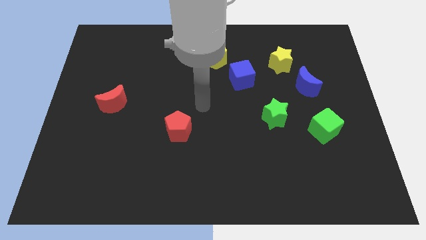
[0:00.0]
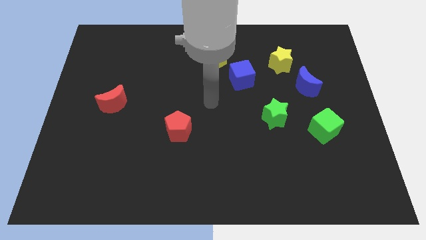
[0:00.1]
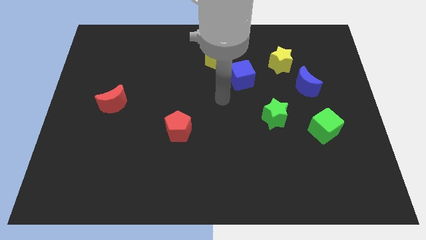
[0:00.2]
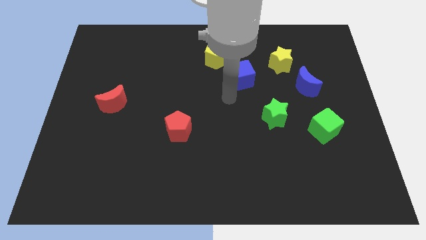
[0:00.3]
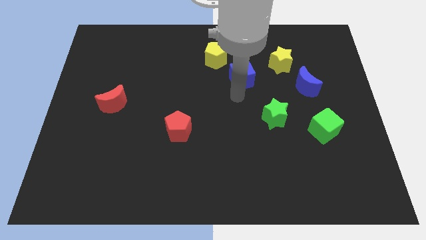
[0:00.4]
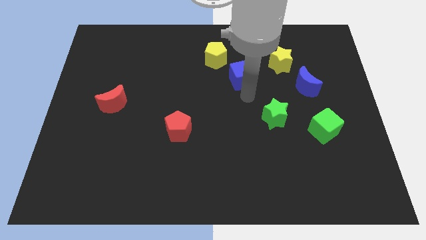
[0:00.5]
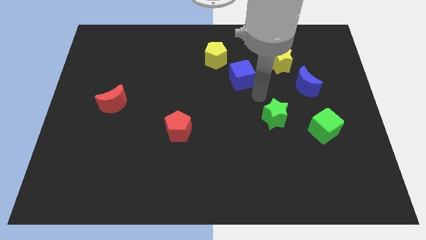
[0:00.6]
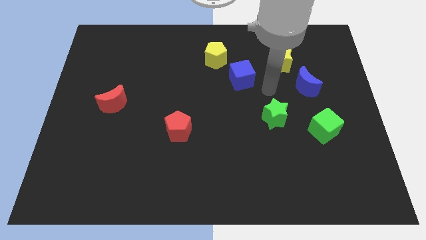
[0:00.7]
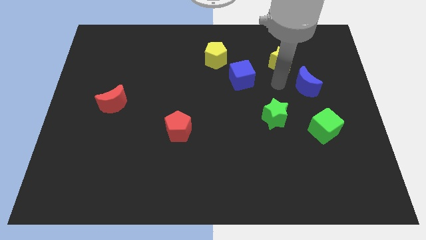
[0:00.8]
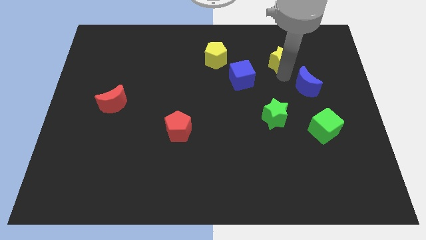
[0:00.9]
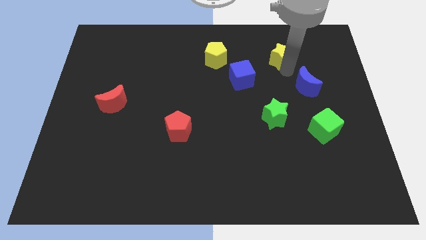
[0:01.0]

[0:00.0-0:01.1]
pull the blue moon apart from the yellow star

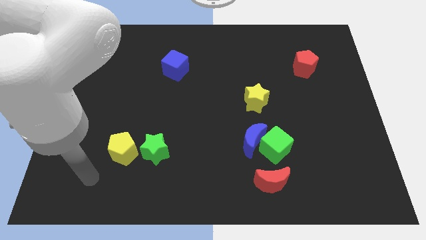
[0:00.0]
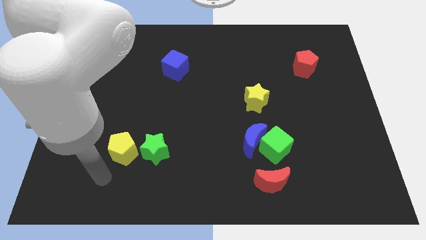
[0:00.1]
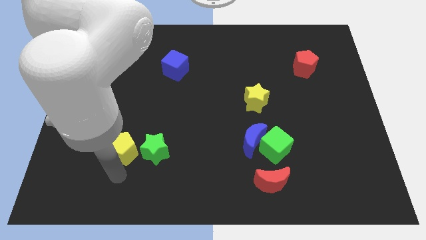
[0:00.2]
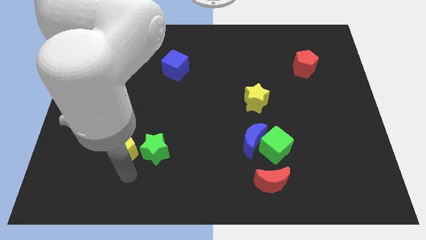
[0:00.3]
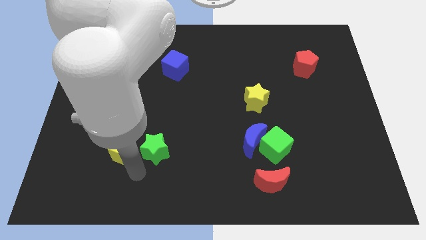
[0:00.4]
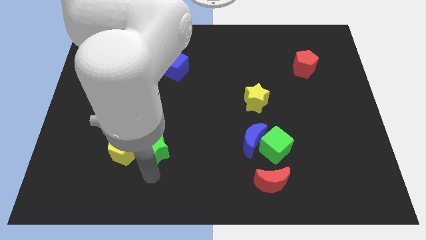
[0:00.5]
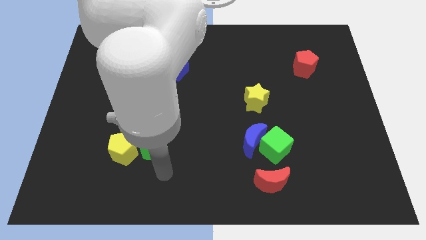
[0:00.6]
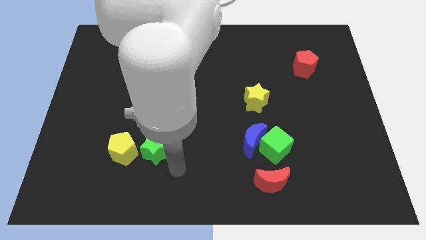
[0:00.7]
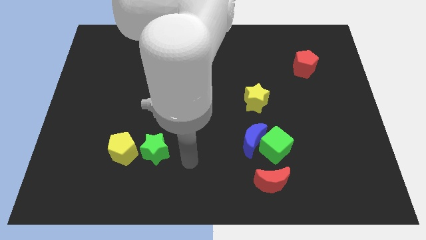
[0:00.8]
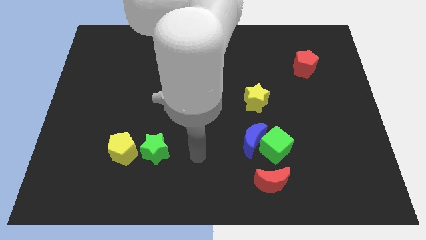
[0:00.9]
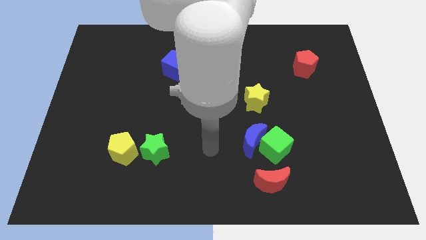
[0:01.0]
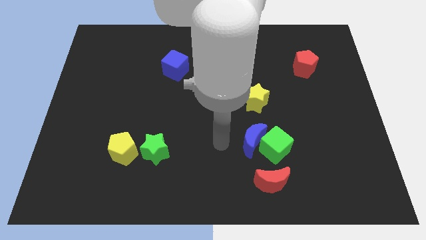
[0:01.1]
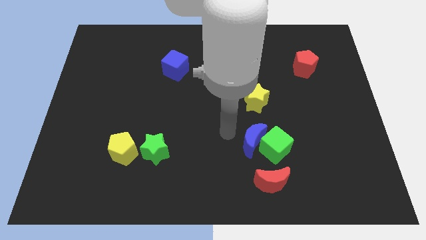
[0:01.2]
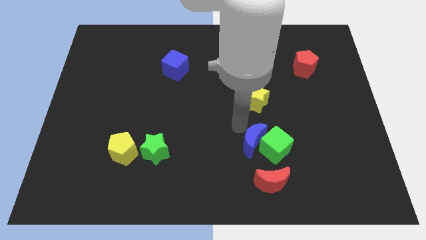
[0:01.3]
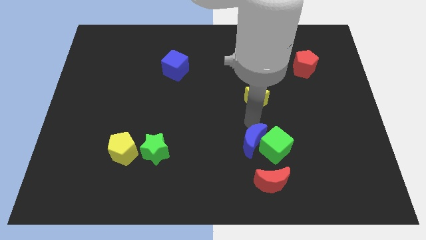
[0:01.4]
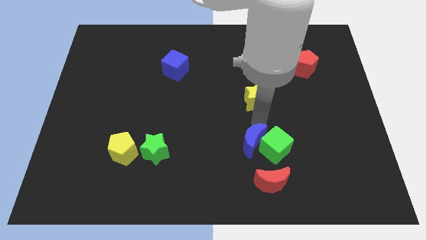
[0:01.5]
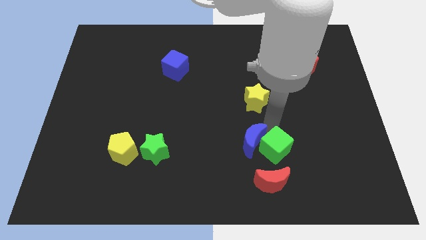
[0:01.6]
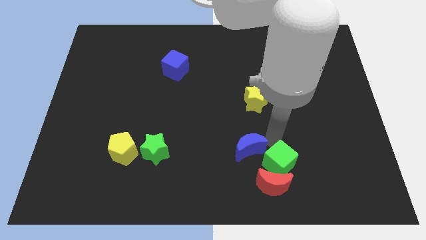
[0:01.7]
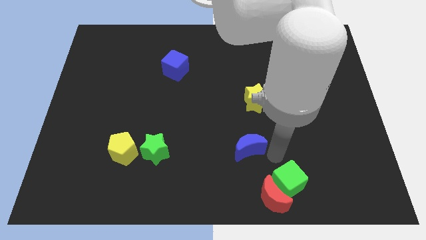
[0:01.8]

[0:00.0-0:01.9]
pull the blue moon apart from the green cube

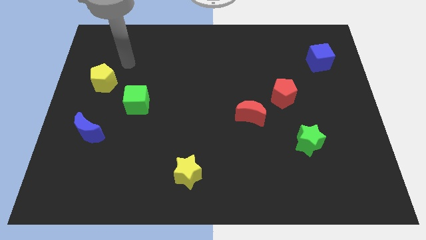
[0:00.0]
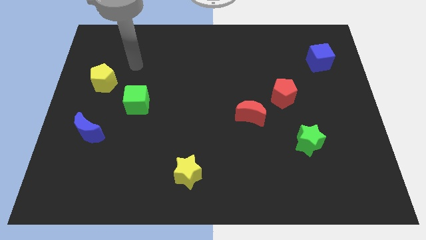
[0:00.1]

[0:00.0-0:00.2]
separate the red moon from the red pentagon

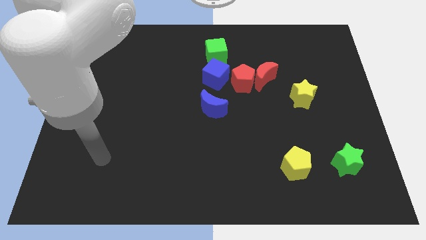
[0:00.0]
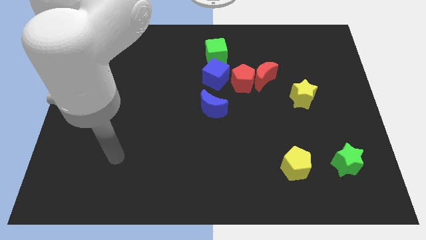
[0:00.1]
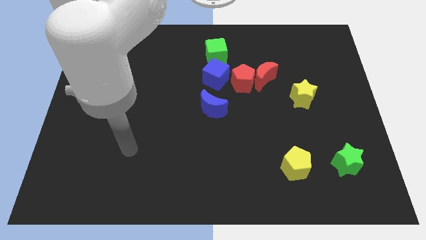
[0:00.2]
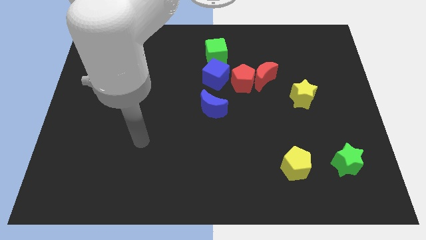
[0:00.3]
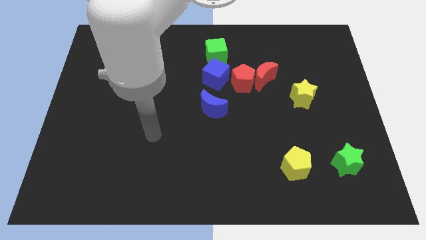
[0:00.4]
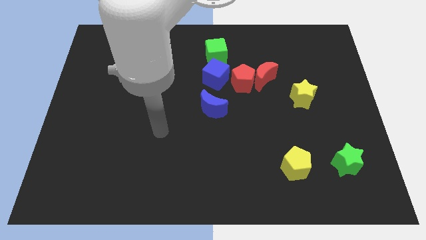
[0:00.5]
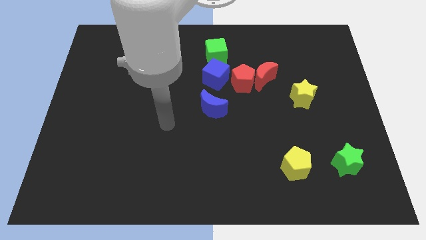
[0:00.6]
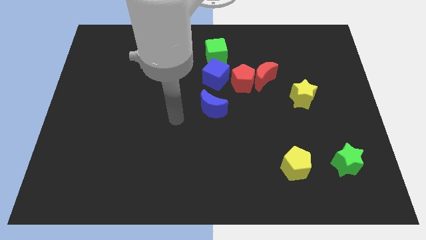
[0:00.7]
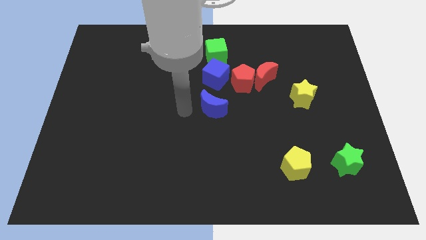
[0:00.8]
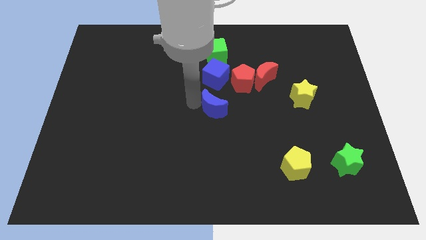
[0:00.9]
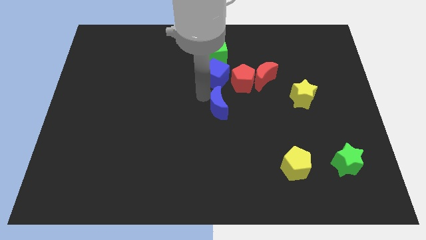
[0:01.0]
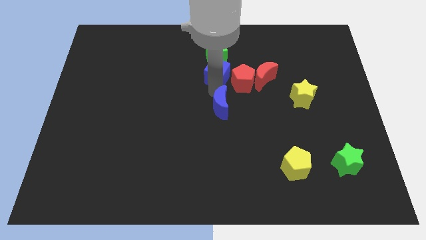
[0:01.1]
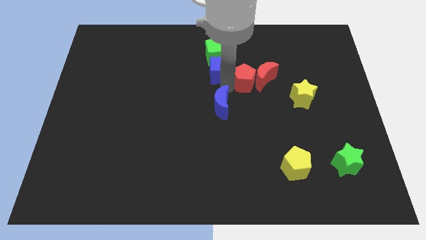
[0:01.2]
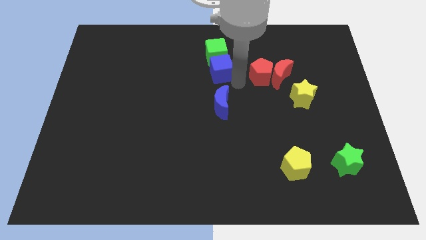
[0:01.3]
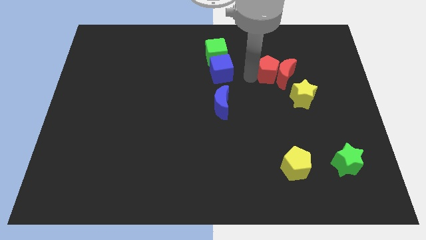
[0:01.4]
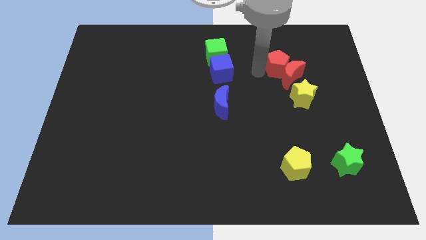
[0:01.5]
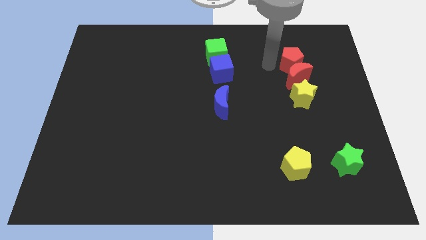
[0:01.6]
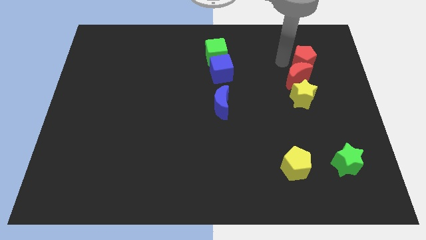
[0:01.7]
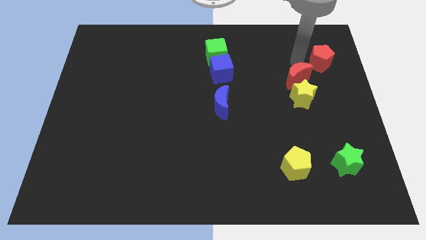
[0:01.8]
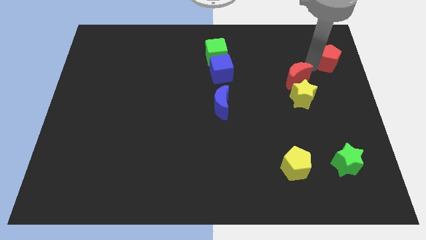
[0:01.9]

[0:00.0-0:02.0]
move the red moon away from the red pentagon

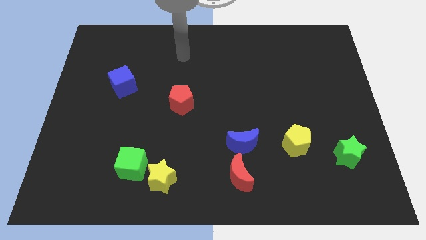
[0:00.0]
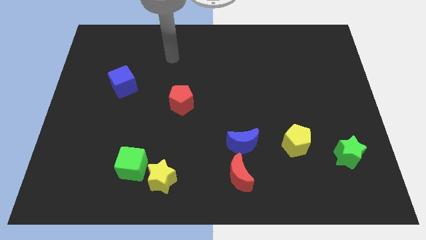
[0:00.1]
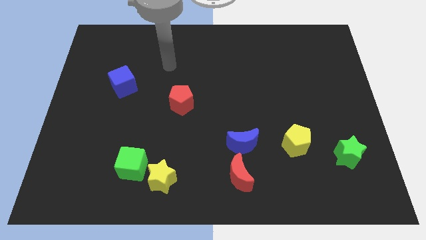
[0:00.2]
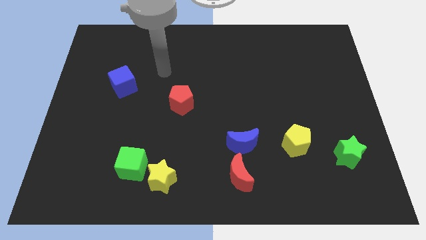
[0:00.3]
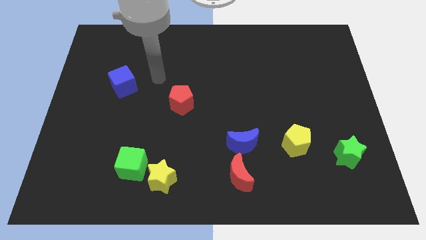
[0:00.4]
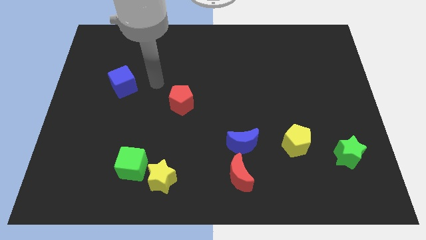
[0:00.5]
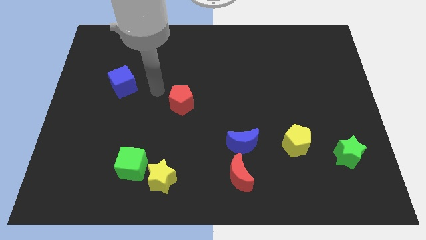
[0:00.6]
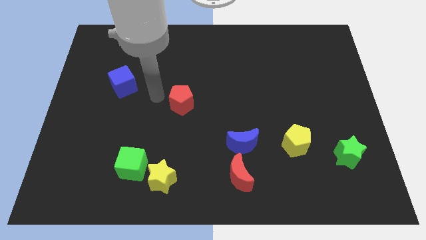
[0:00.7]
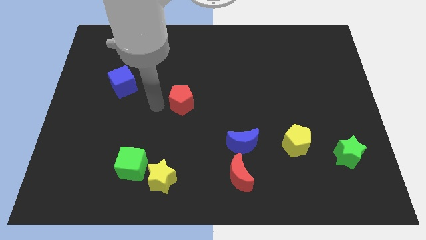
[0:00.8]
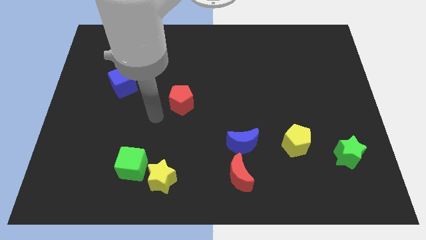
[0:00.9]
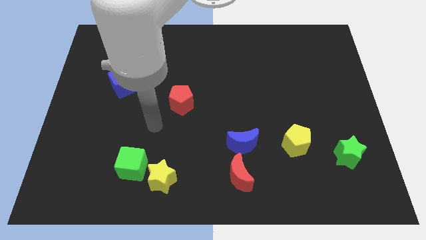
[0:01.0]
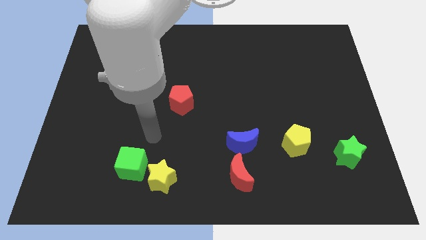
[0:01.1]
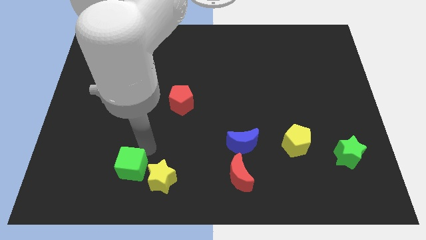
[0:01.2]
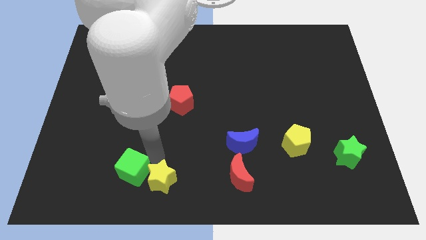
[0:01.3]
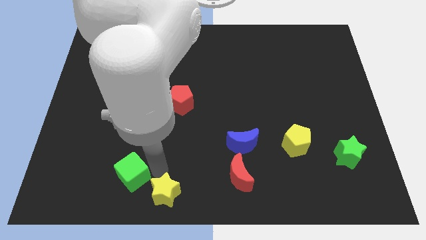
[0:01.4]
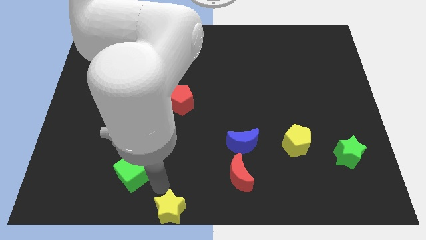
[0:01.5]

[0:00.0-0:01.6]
move the green cube away from the yellow star

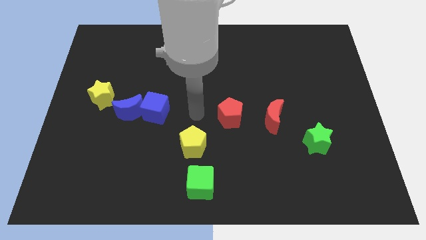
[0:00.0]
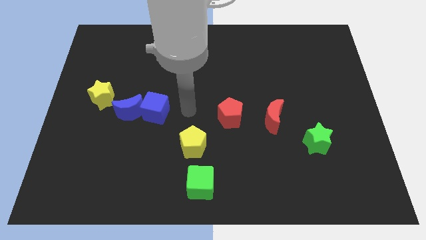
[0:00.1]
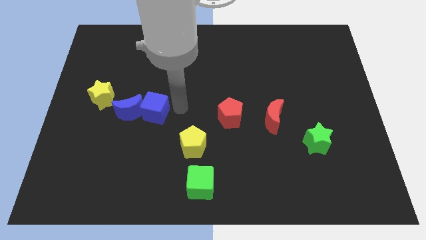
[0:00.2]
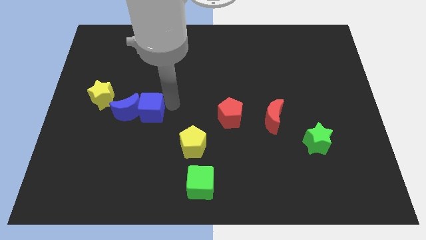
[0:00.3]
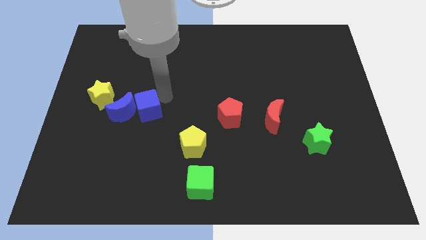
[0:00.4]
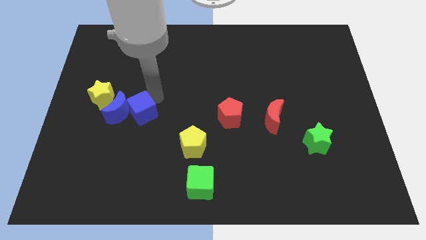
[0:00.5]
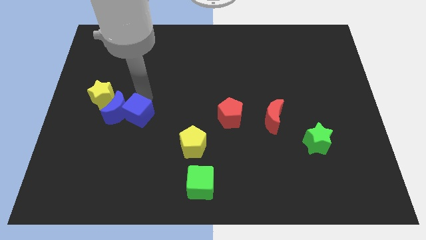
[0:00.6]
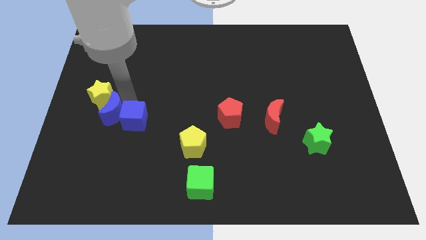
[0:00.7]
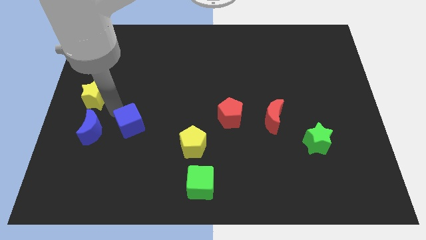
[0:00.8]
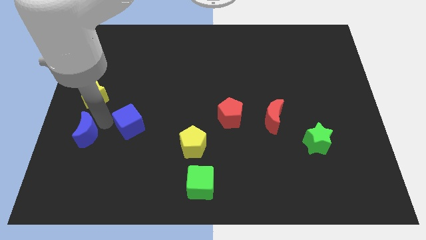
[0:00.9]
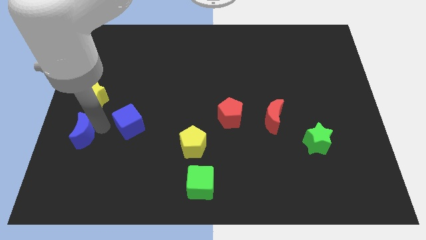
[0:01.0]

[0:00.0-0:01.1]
separate the blue cube from the blue moon

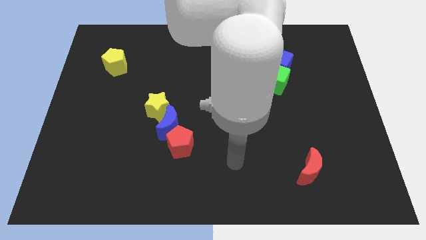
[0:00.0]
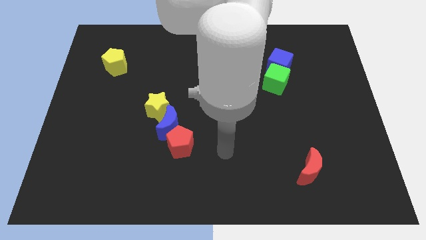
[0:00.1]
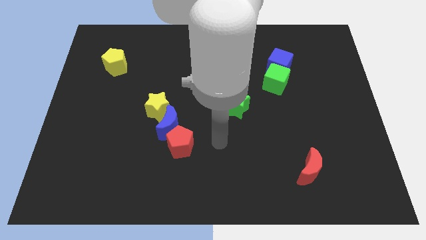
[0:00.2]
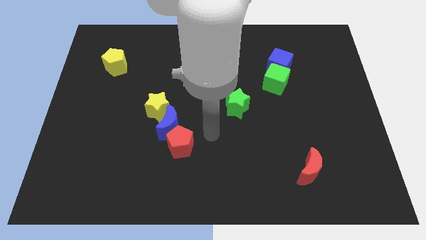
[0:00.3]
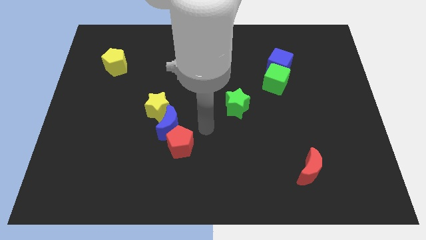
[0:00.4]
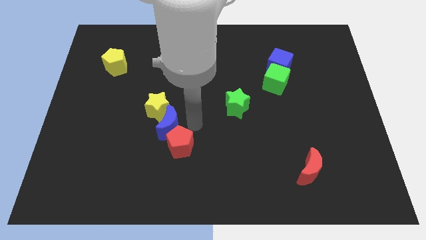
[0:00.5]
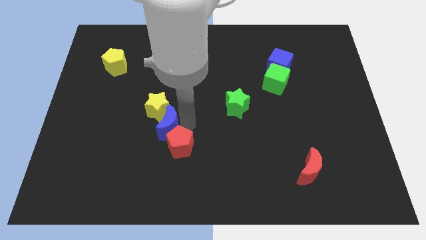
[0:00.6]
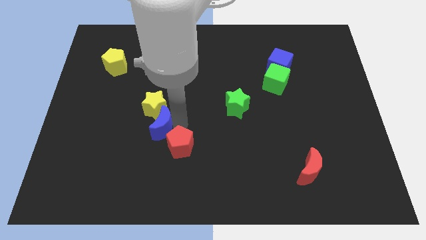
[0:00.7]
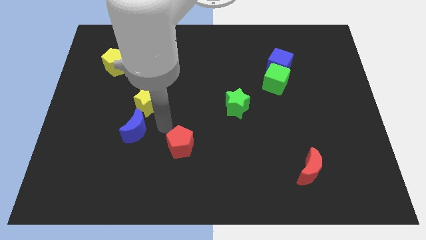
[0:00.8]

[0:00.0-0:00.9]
pull the red pentagon apart from the blue moon

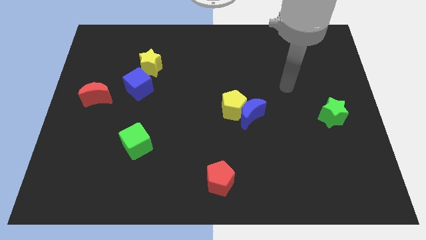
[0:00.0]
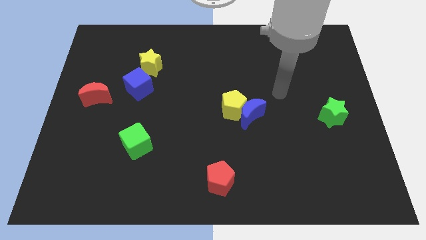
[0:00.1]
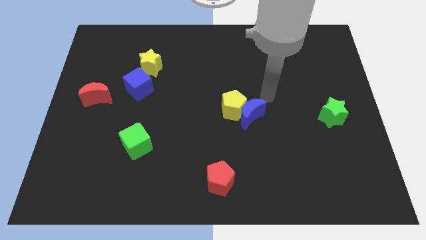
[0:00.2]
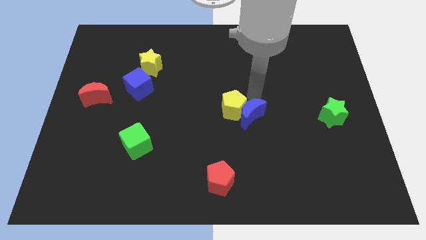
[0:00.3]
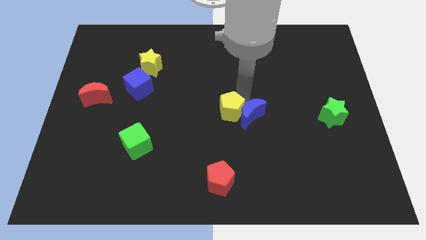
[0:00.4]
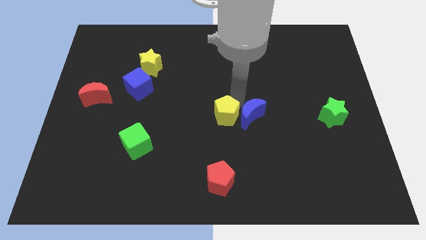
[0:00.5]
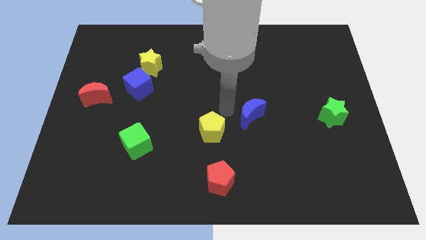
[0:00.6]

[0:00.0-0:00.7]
move the blue moon away from the yellow pentagon
